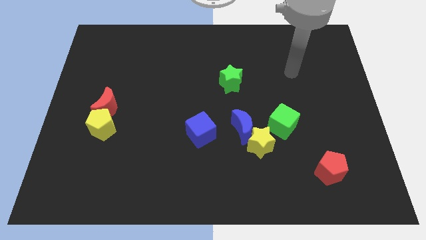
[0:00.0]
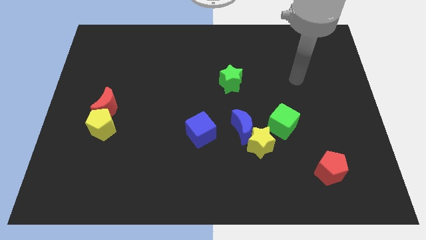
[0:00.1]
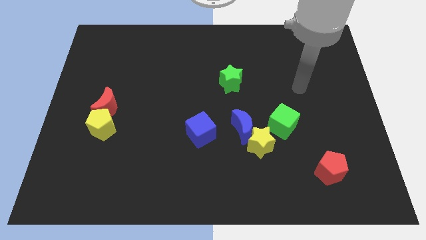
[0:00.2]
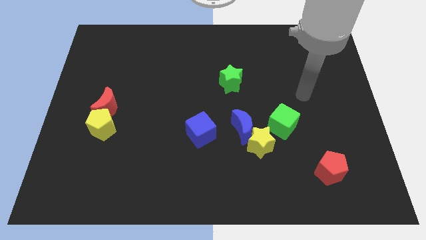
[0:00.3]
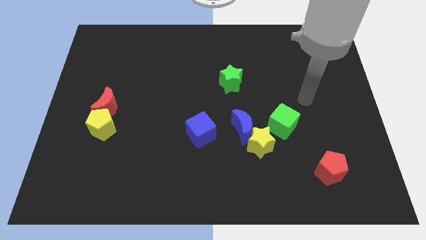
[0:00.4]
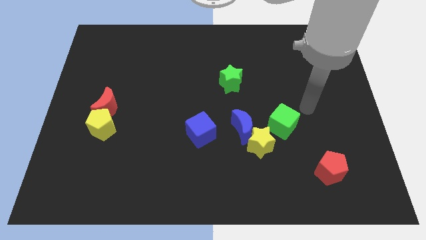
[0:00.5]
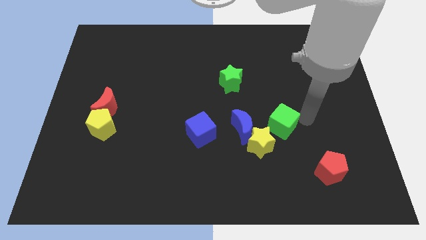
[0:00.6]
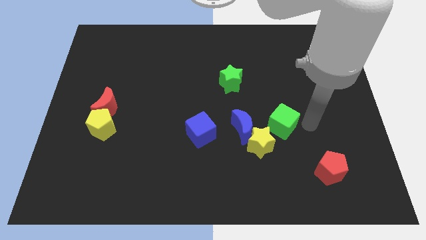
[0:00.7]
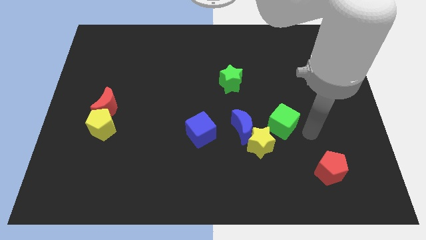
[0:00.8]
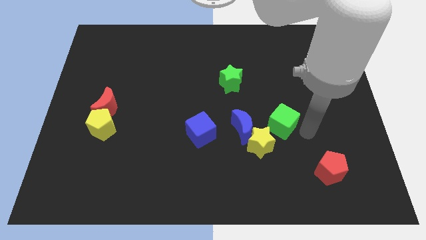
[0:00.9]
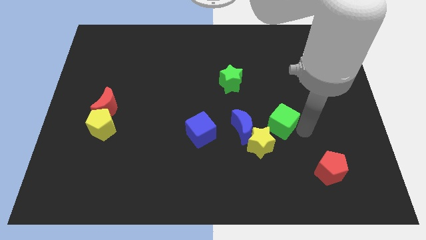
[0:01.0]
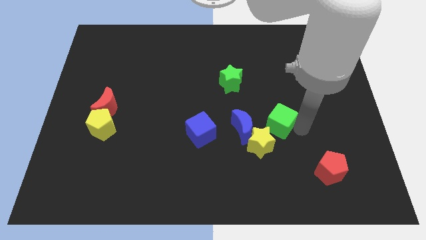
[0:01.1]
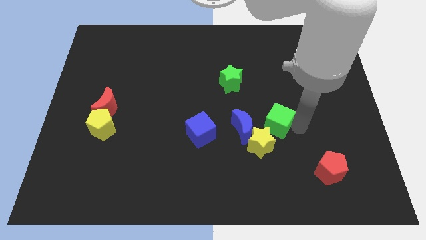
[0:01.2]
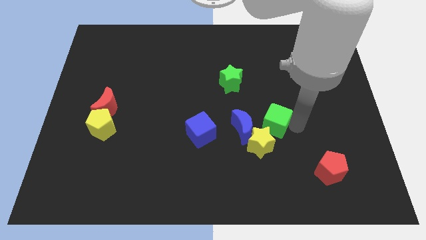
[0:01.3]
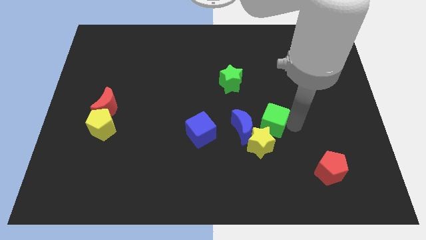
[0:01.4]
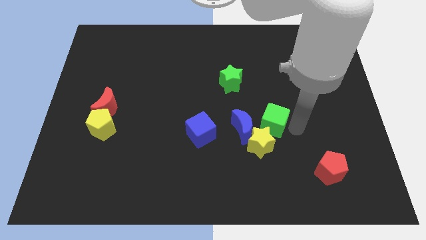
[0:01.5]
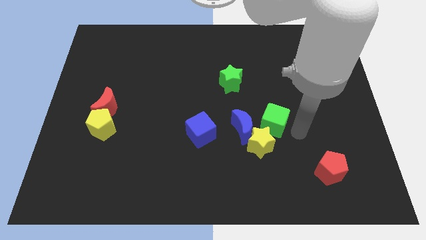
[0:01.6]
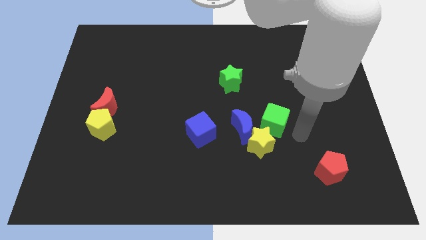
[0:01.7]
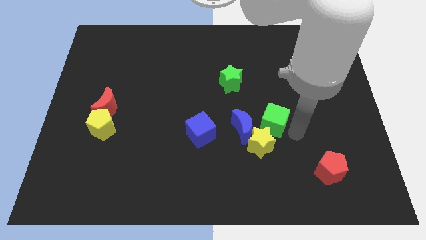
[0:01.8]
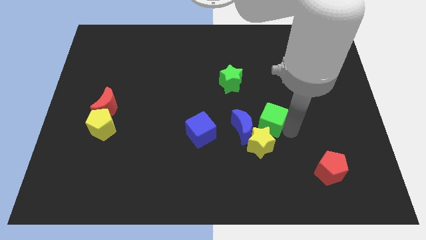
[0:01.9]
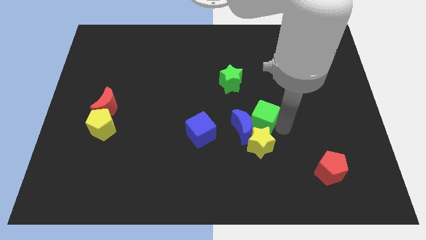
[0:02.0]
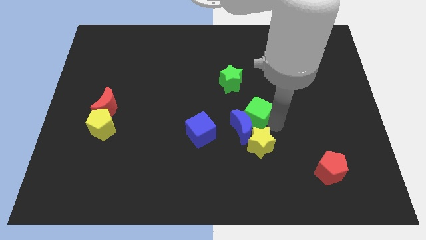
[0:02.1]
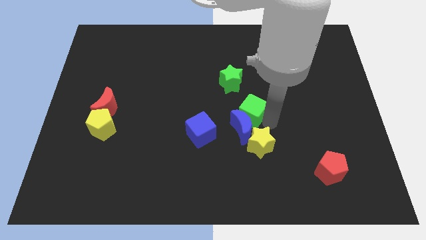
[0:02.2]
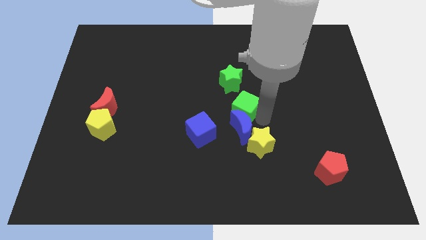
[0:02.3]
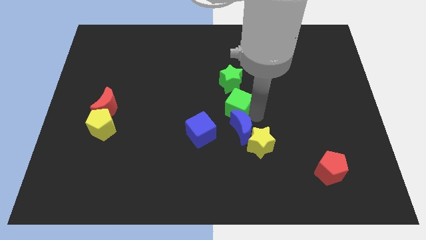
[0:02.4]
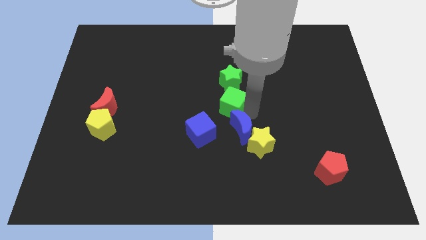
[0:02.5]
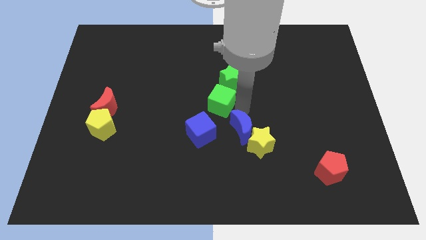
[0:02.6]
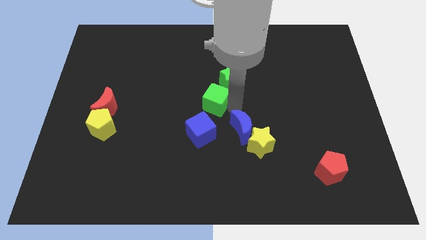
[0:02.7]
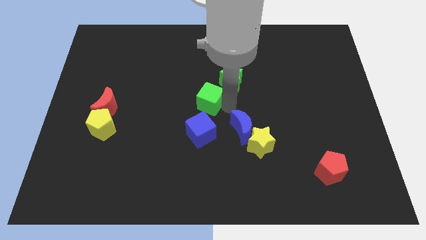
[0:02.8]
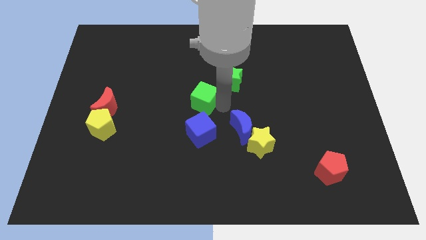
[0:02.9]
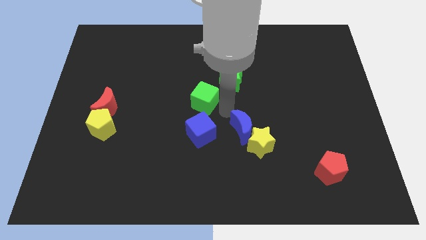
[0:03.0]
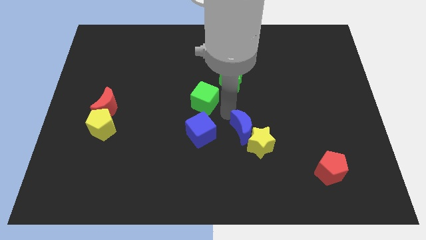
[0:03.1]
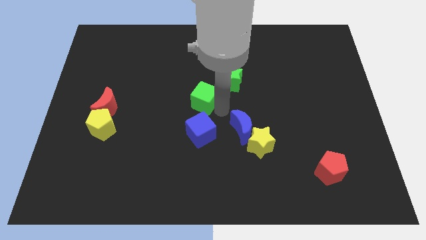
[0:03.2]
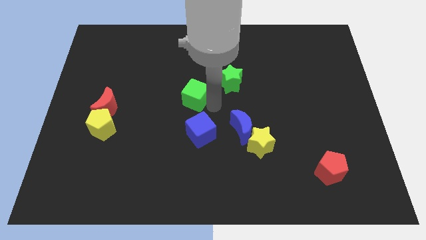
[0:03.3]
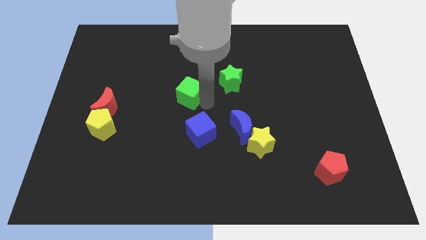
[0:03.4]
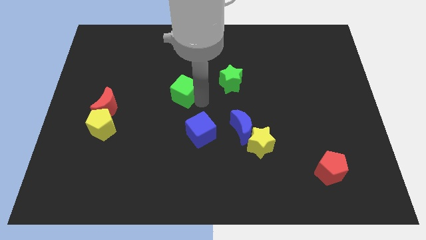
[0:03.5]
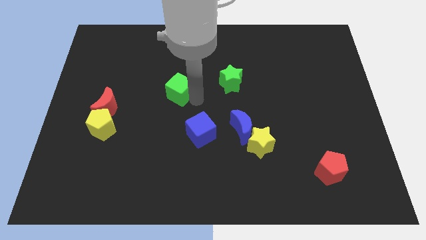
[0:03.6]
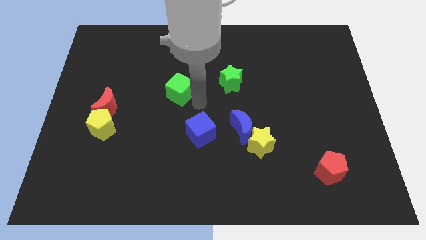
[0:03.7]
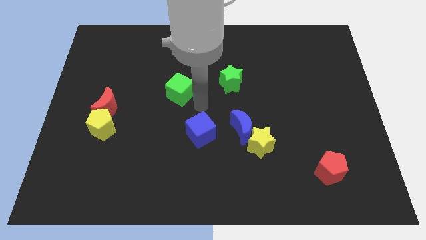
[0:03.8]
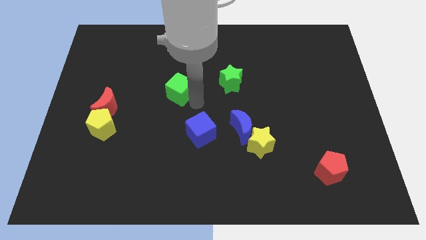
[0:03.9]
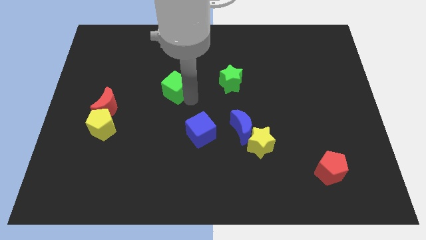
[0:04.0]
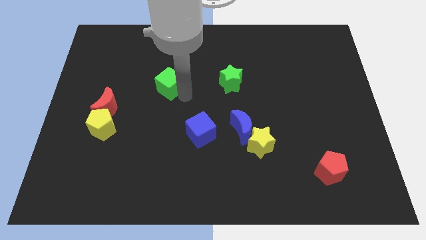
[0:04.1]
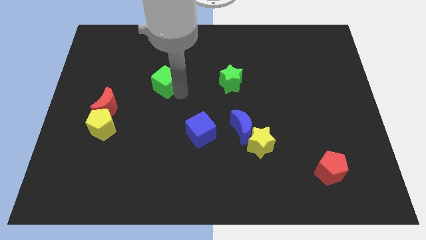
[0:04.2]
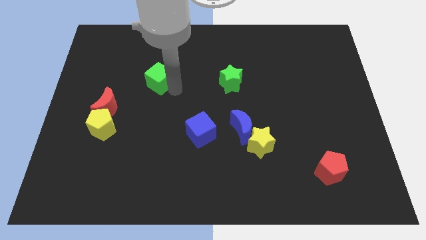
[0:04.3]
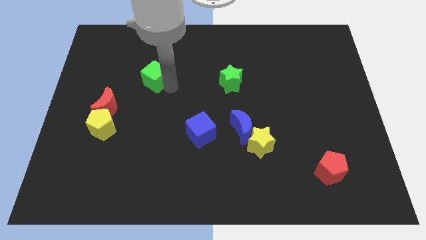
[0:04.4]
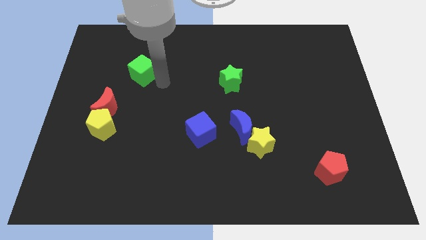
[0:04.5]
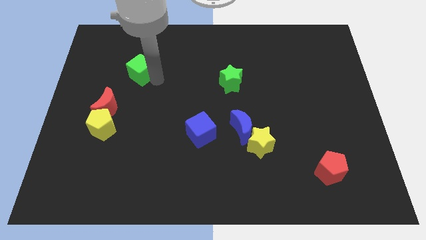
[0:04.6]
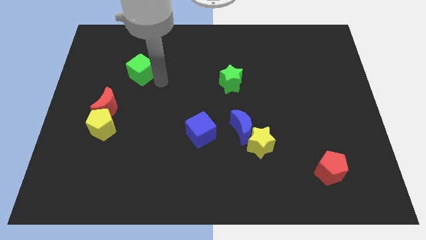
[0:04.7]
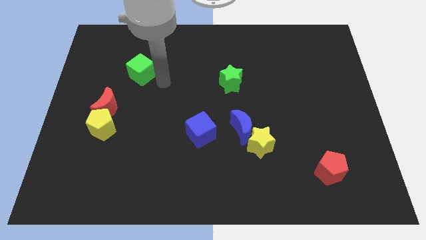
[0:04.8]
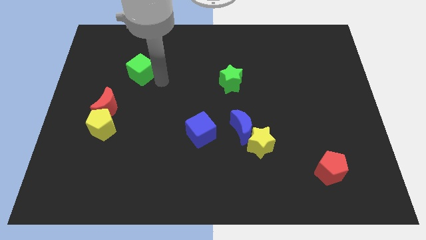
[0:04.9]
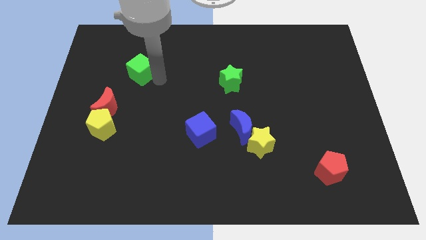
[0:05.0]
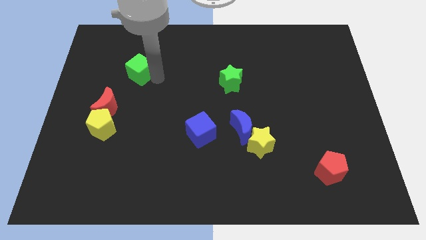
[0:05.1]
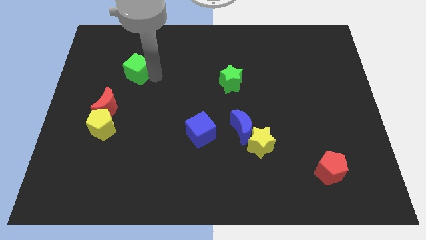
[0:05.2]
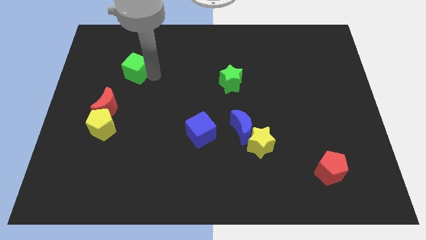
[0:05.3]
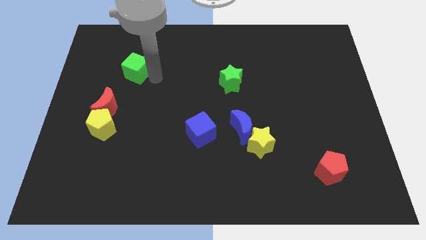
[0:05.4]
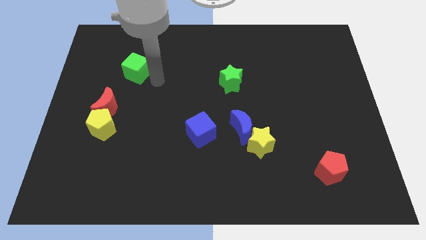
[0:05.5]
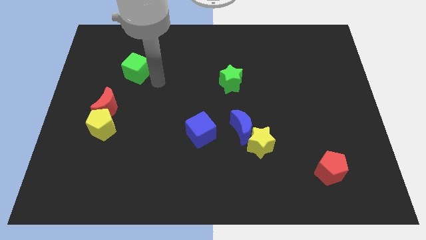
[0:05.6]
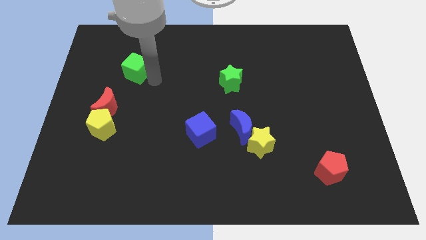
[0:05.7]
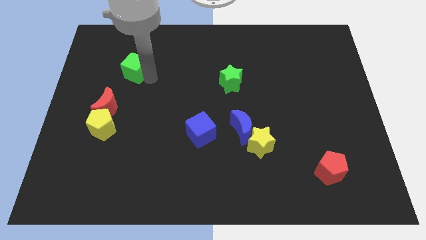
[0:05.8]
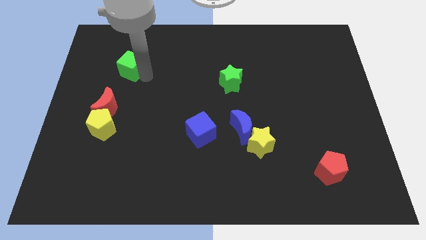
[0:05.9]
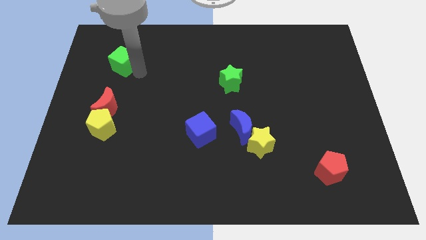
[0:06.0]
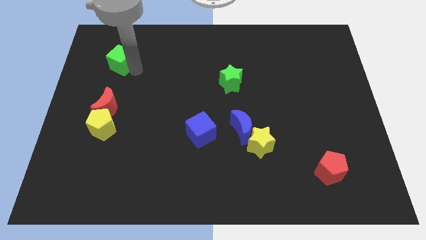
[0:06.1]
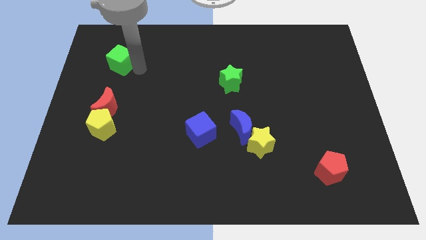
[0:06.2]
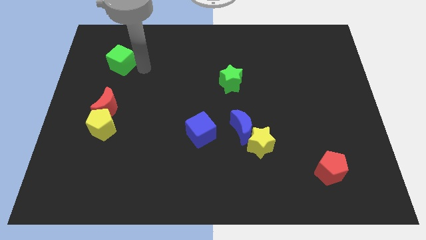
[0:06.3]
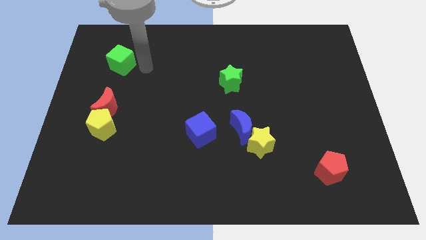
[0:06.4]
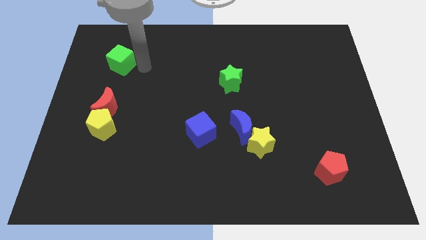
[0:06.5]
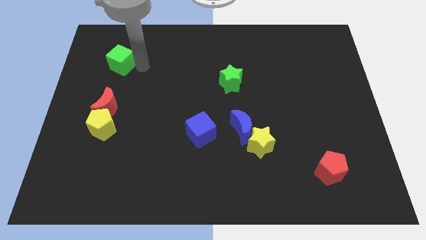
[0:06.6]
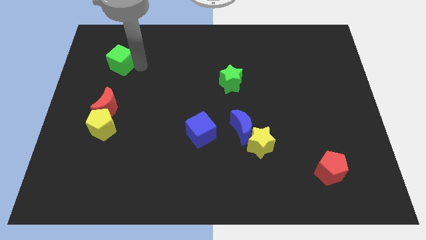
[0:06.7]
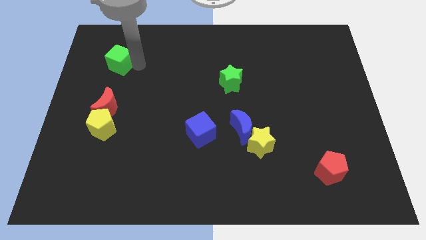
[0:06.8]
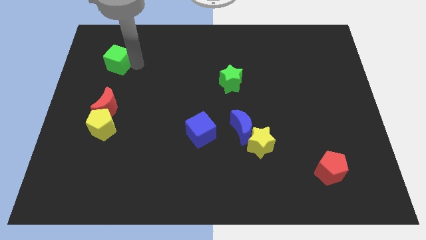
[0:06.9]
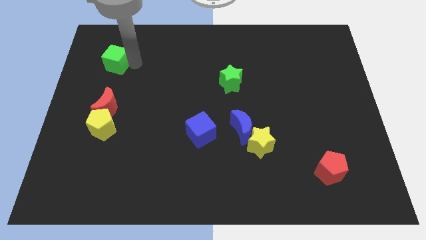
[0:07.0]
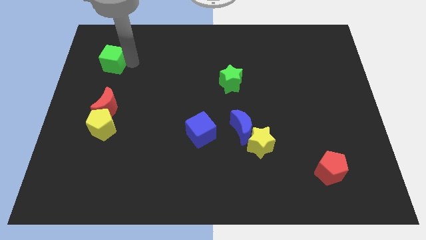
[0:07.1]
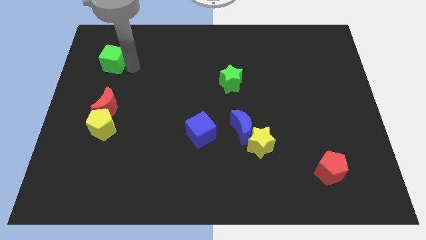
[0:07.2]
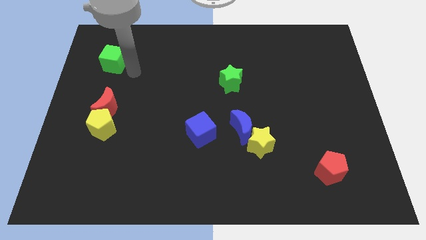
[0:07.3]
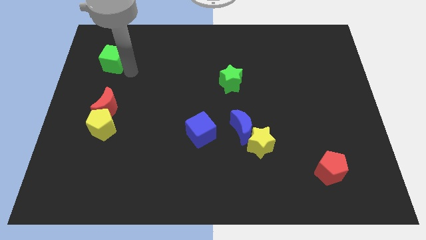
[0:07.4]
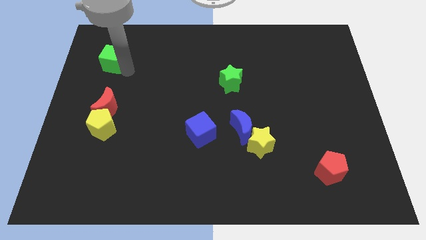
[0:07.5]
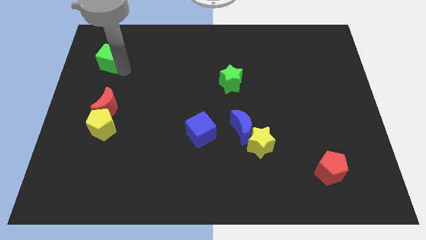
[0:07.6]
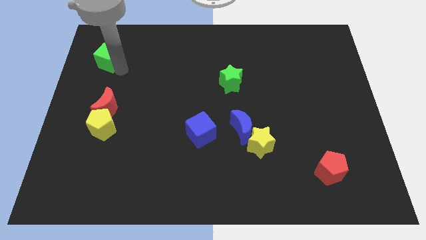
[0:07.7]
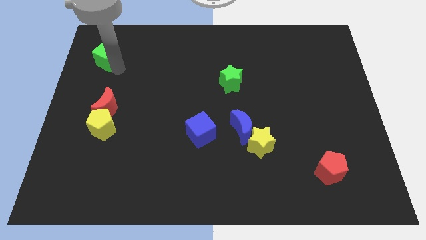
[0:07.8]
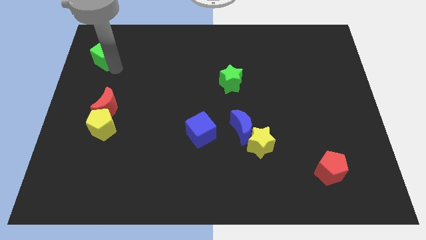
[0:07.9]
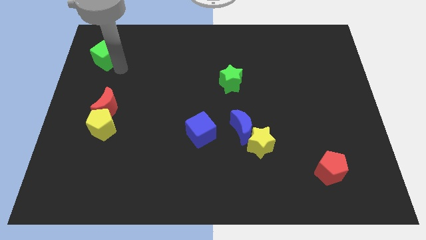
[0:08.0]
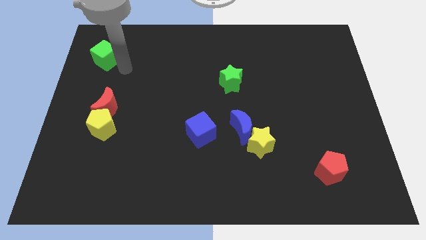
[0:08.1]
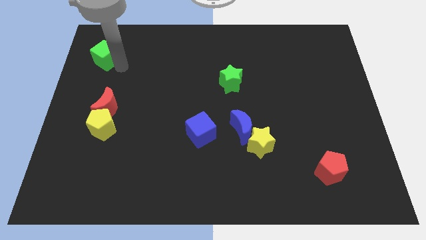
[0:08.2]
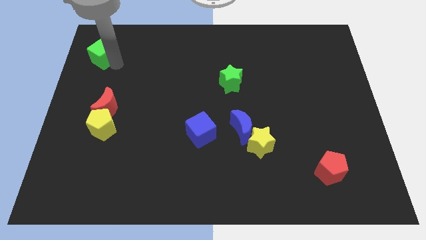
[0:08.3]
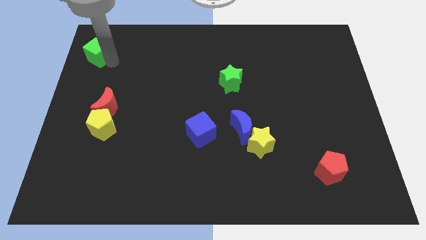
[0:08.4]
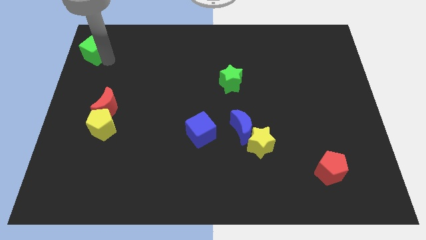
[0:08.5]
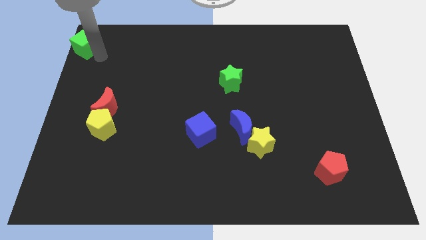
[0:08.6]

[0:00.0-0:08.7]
push the green cube to the top left of the board
